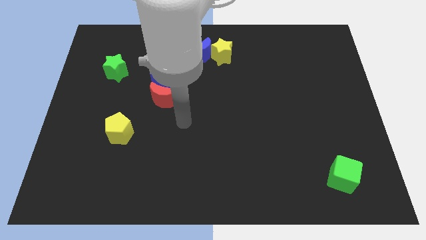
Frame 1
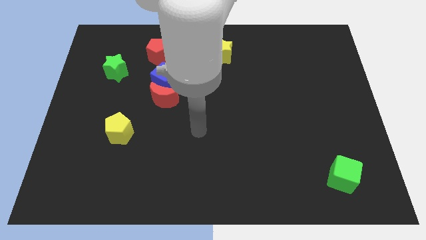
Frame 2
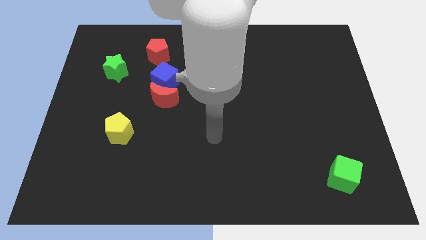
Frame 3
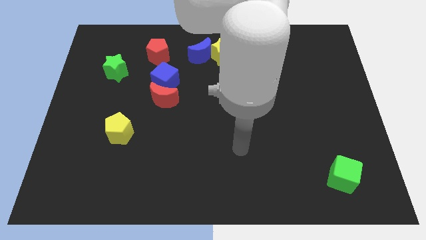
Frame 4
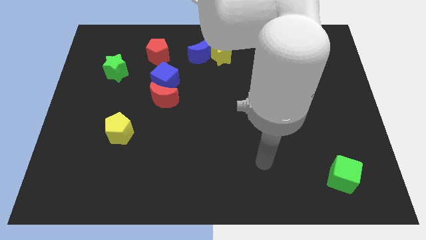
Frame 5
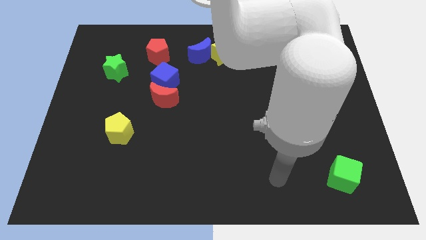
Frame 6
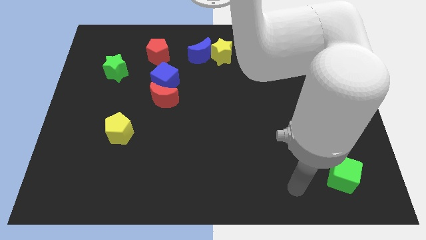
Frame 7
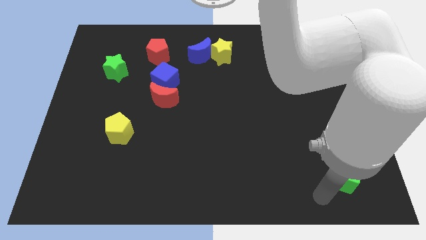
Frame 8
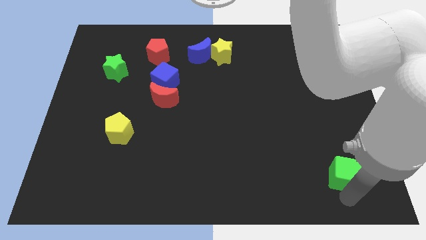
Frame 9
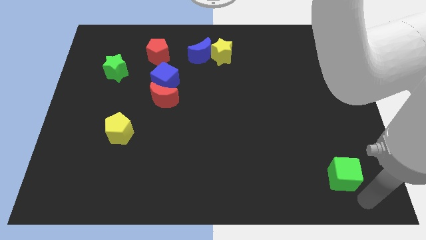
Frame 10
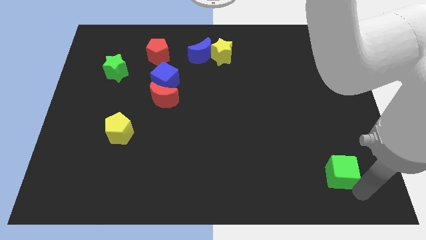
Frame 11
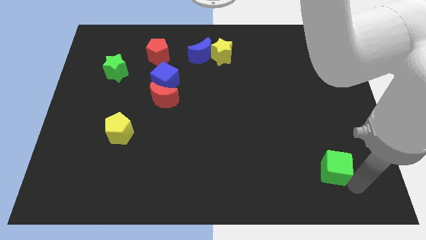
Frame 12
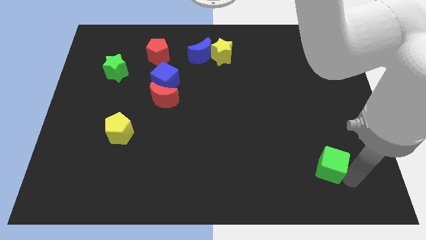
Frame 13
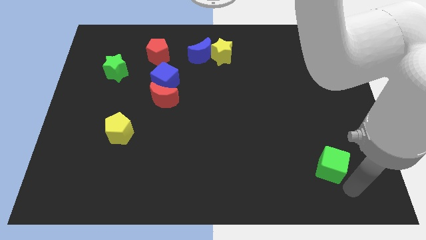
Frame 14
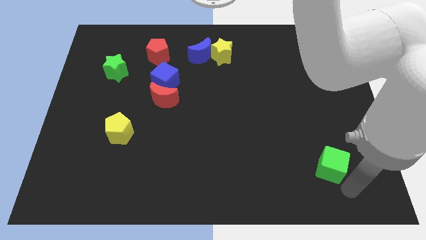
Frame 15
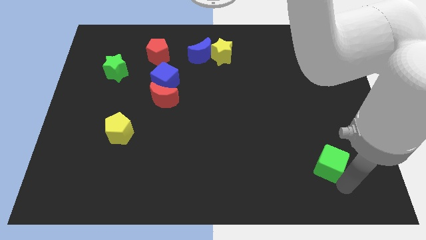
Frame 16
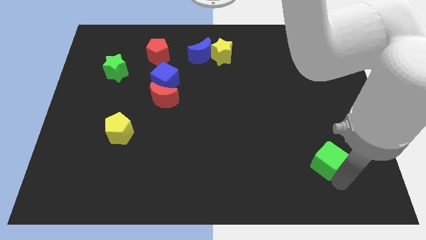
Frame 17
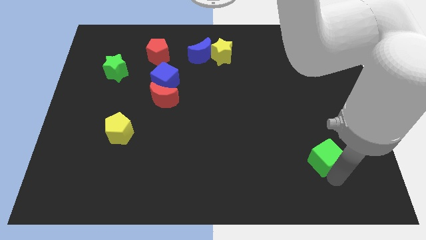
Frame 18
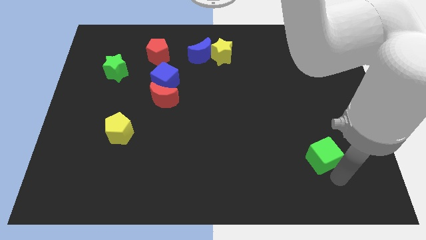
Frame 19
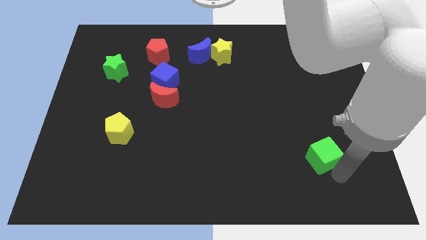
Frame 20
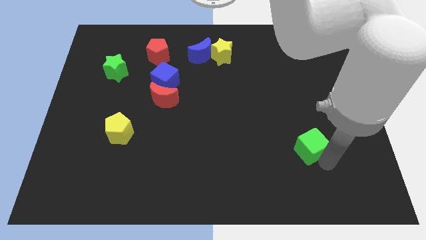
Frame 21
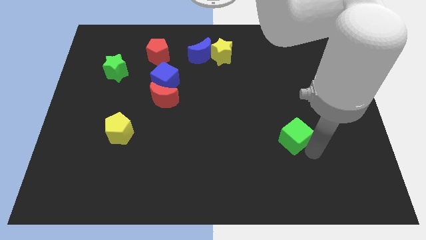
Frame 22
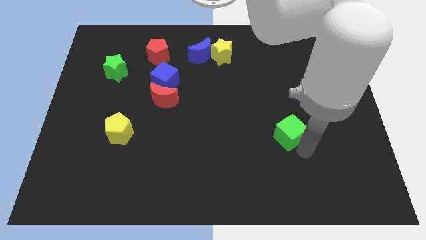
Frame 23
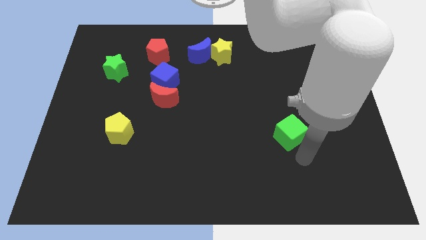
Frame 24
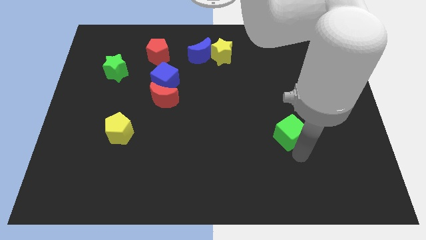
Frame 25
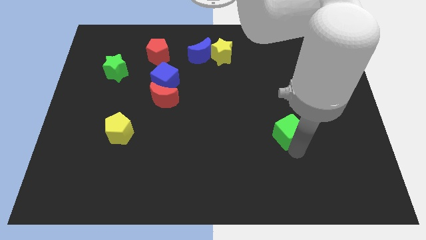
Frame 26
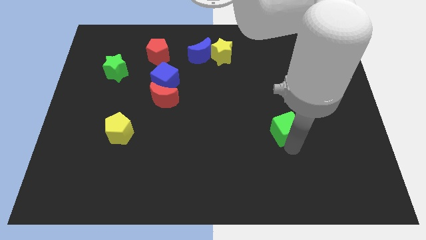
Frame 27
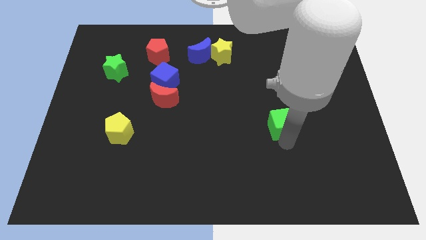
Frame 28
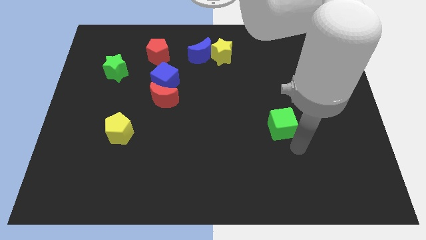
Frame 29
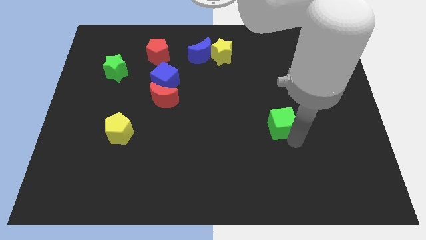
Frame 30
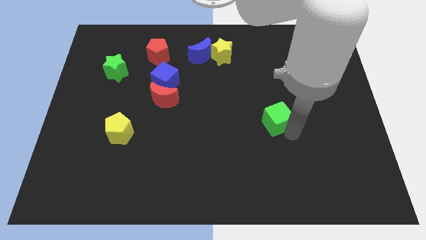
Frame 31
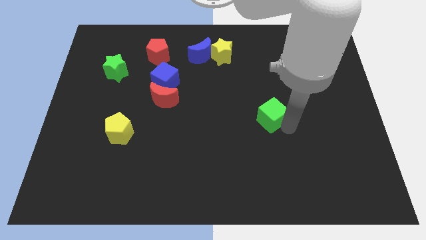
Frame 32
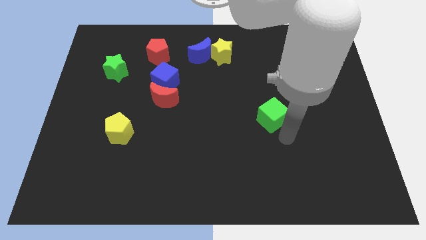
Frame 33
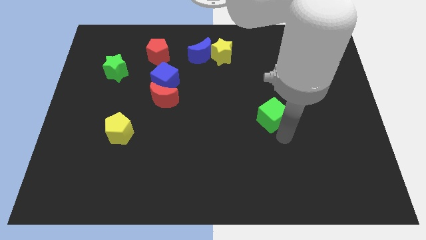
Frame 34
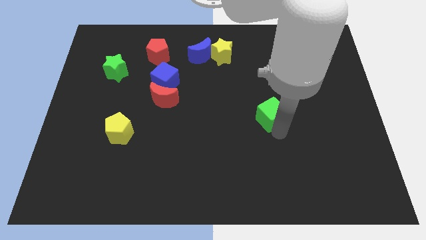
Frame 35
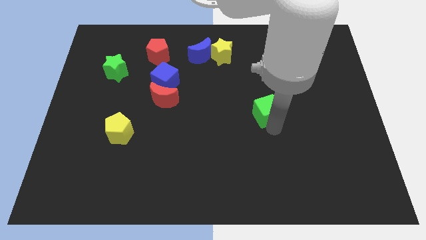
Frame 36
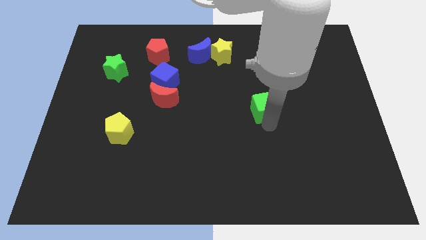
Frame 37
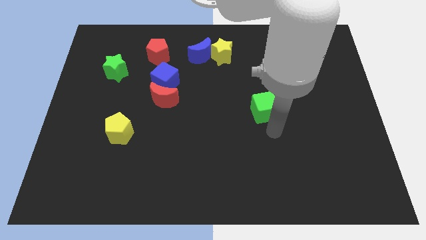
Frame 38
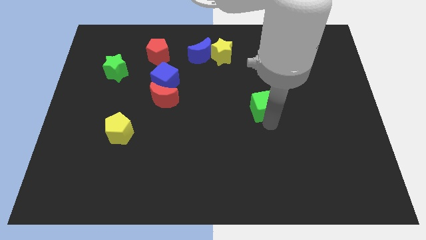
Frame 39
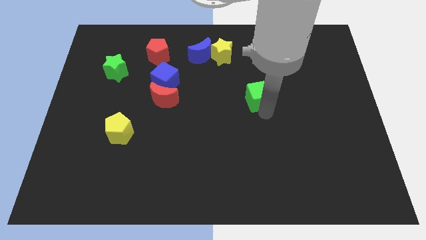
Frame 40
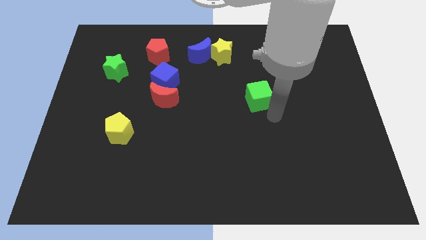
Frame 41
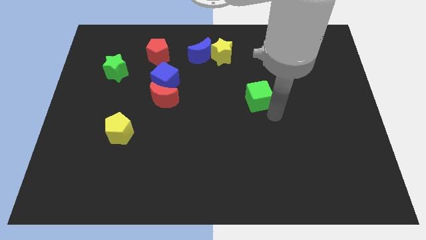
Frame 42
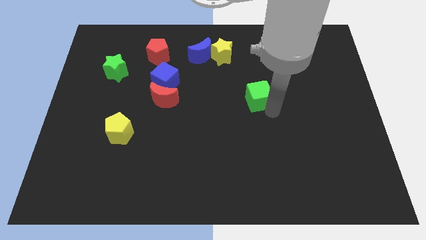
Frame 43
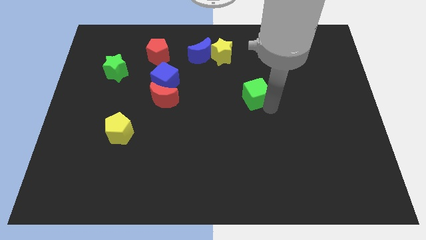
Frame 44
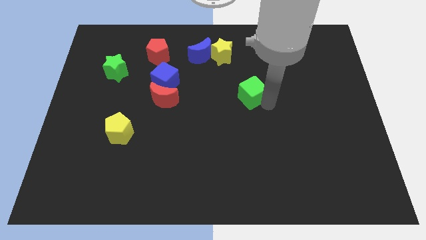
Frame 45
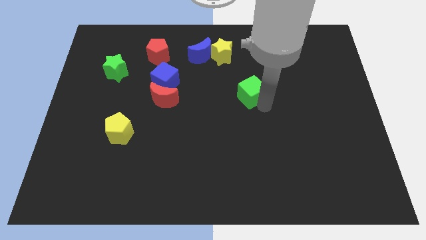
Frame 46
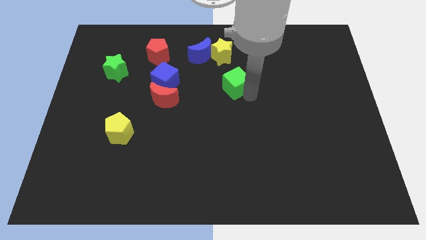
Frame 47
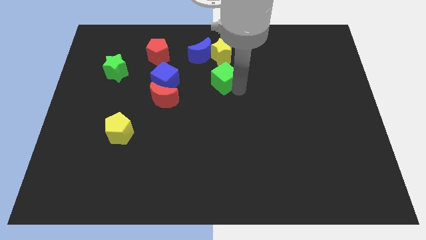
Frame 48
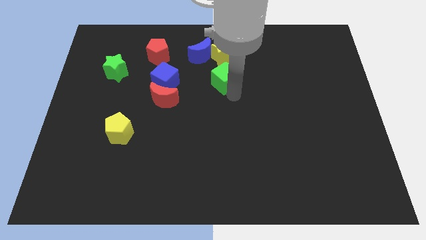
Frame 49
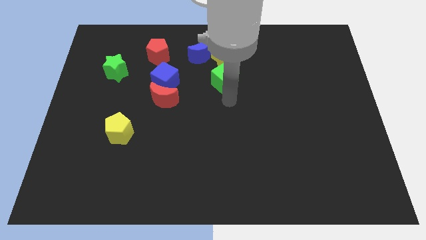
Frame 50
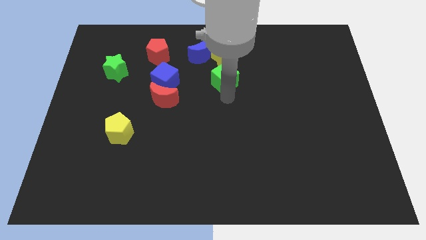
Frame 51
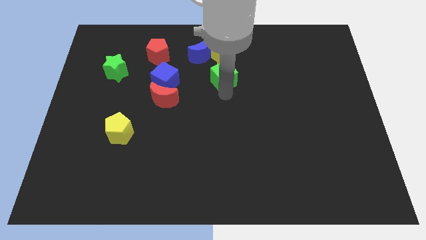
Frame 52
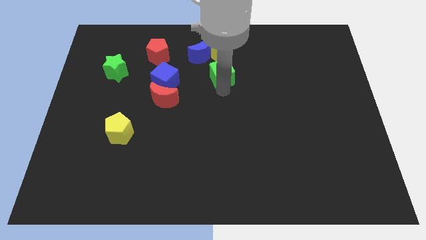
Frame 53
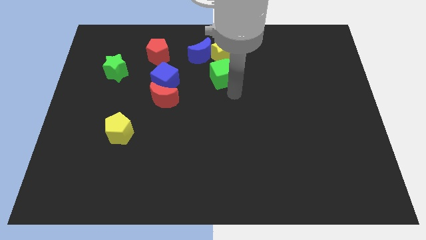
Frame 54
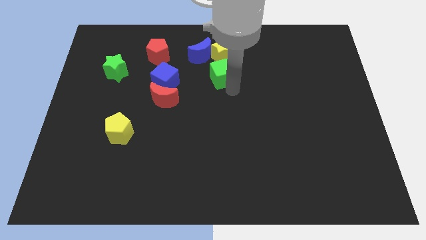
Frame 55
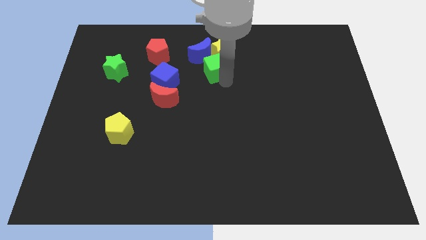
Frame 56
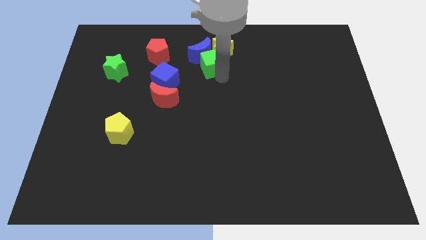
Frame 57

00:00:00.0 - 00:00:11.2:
push the green cube next to the blue moon

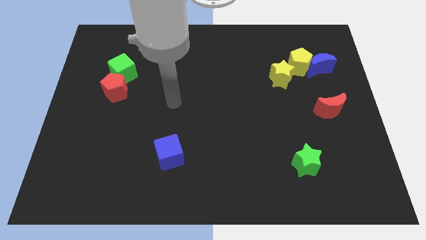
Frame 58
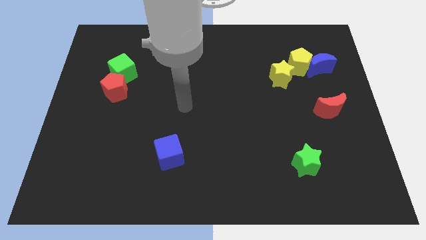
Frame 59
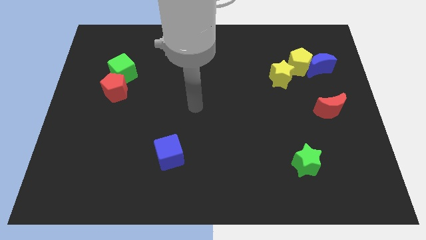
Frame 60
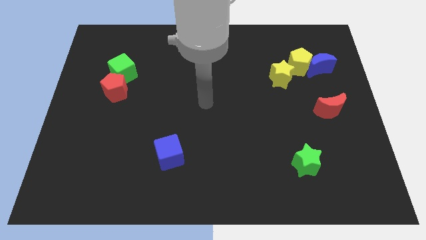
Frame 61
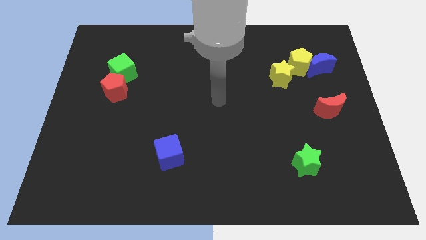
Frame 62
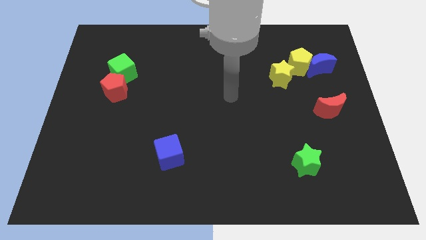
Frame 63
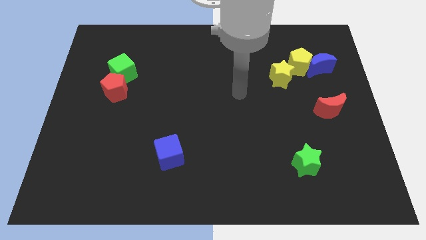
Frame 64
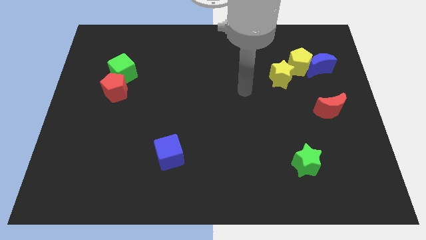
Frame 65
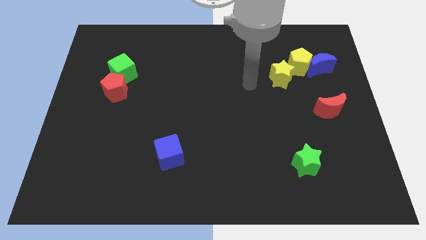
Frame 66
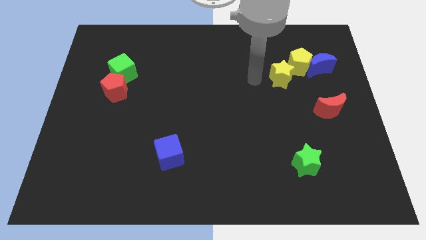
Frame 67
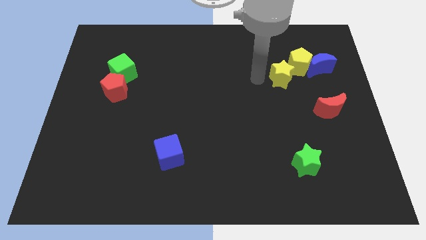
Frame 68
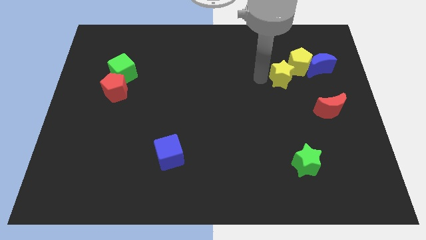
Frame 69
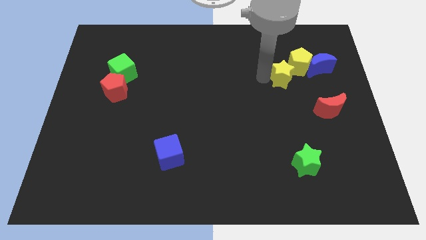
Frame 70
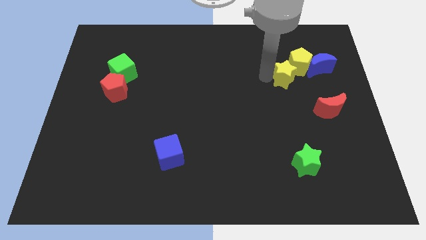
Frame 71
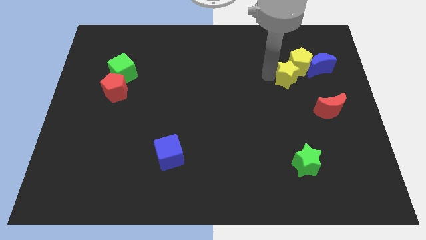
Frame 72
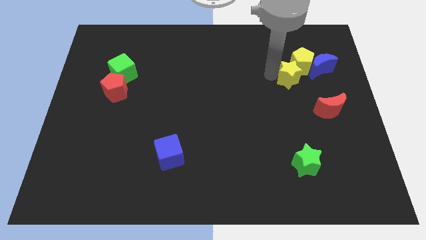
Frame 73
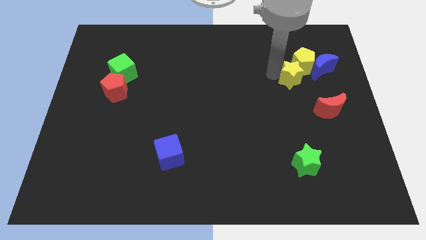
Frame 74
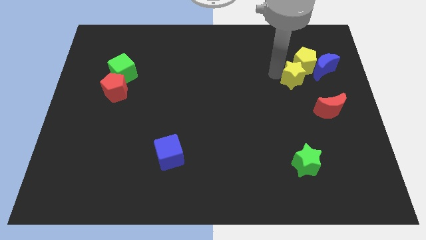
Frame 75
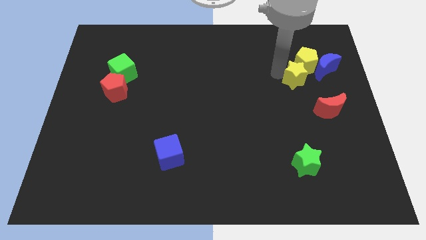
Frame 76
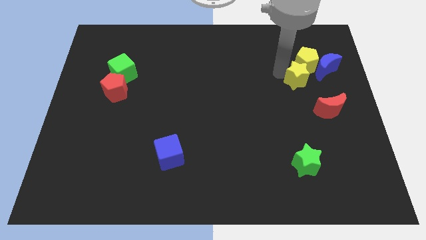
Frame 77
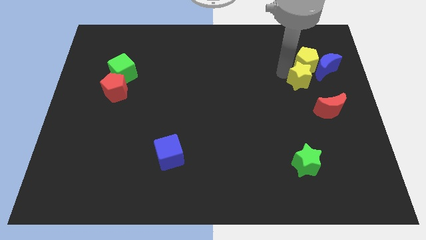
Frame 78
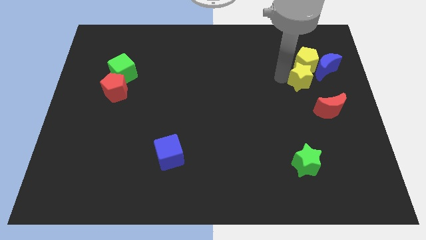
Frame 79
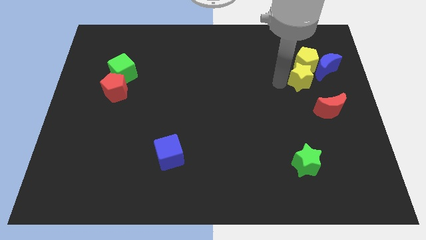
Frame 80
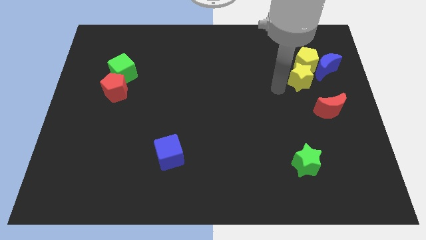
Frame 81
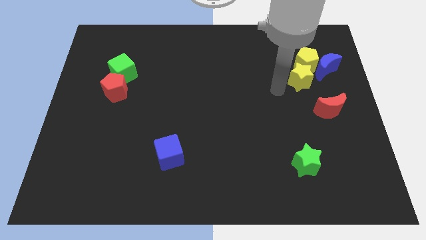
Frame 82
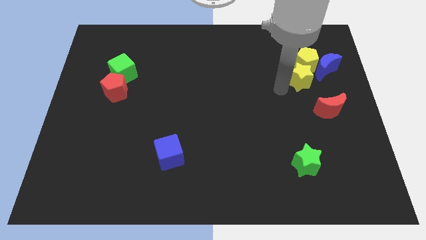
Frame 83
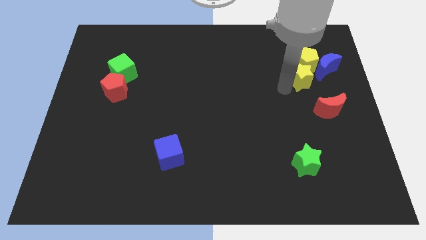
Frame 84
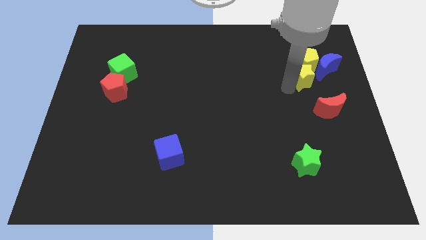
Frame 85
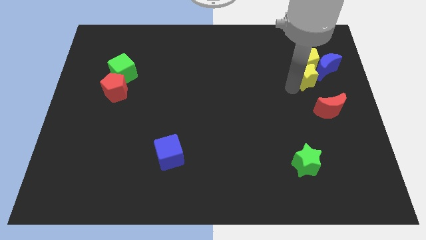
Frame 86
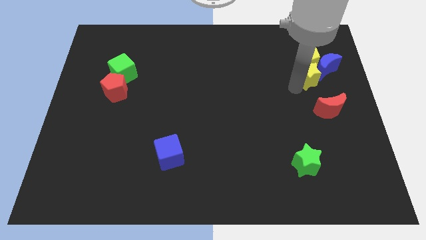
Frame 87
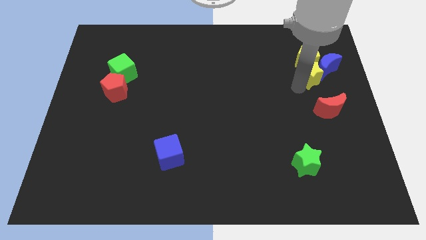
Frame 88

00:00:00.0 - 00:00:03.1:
push the yellow star towards the blue moon
